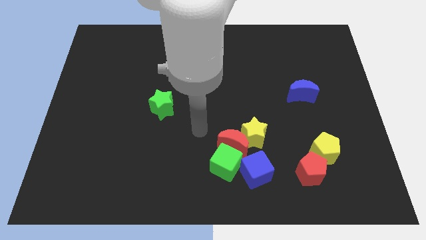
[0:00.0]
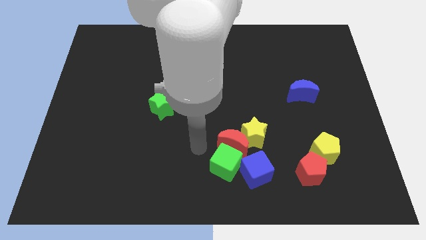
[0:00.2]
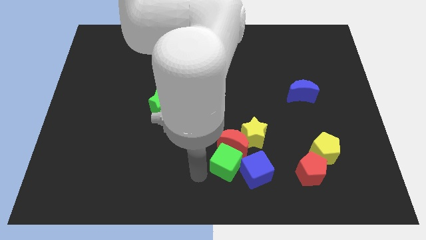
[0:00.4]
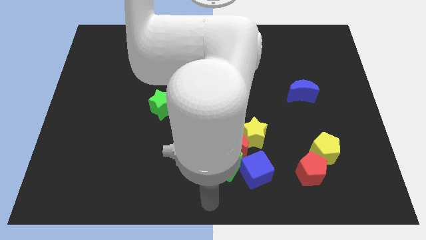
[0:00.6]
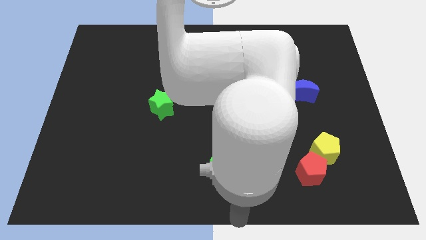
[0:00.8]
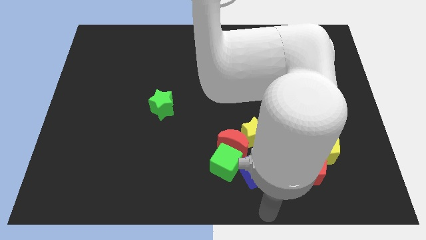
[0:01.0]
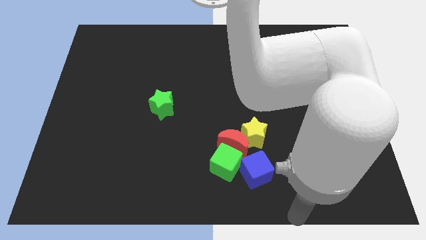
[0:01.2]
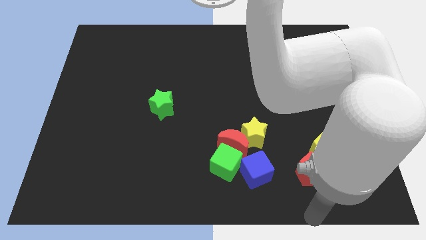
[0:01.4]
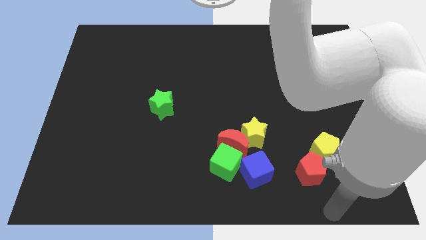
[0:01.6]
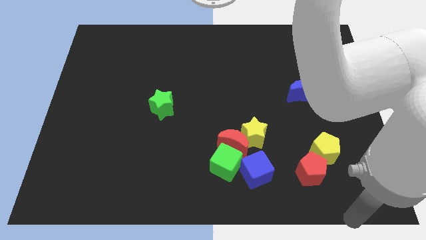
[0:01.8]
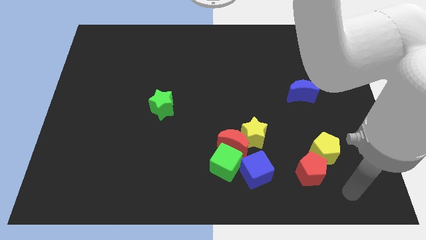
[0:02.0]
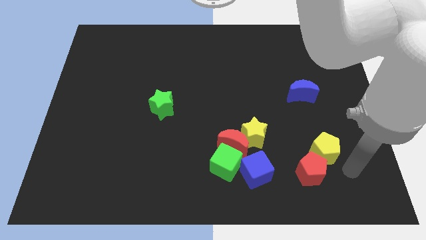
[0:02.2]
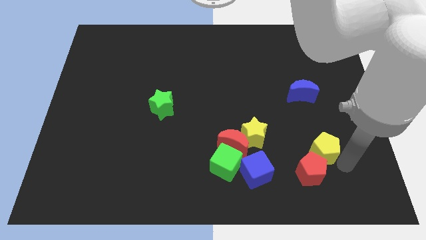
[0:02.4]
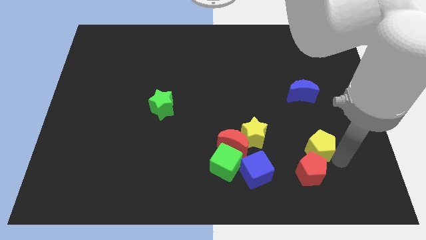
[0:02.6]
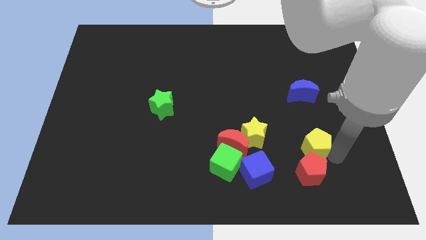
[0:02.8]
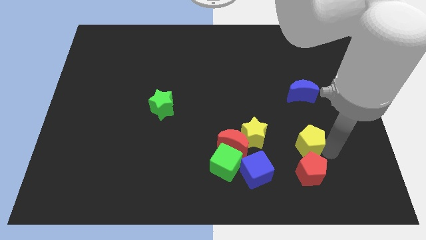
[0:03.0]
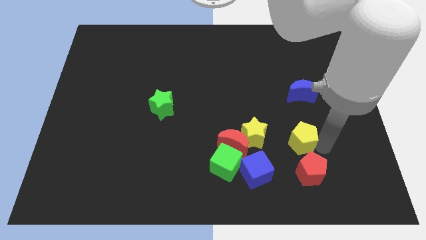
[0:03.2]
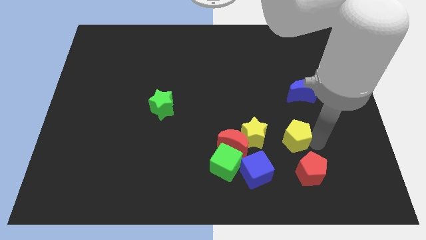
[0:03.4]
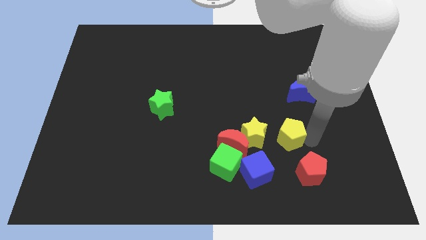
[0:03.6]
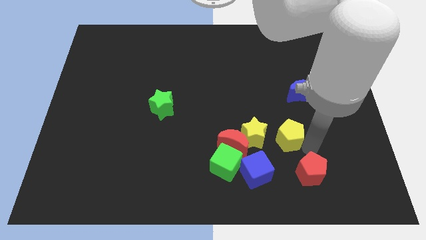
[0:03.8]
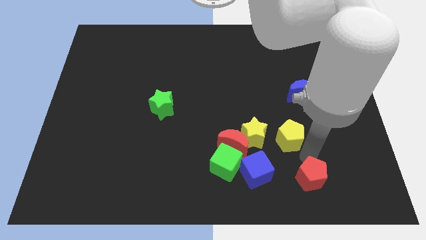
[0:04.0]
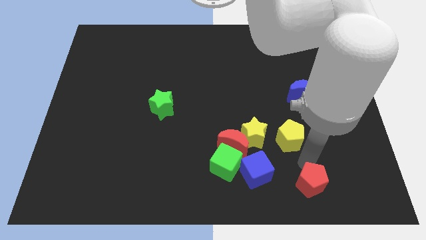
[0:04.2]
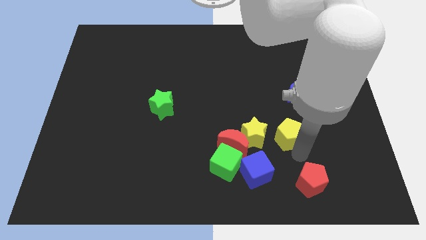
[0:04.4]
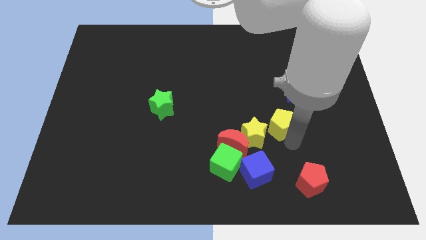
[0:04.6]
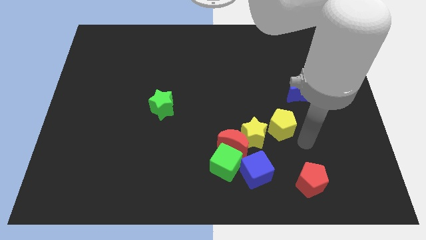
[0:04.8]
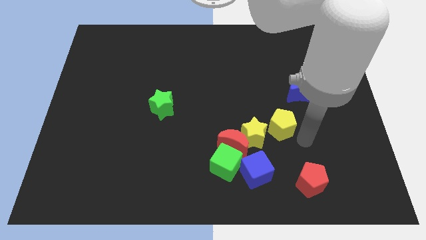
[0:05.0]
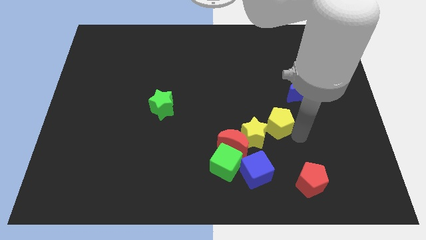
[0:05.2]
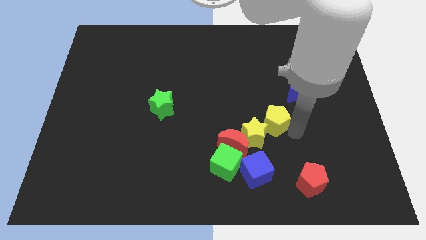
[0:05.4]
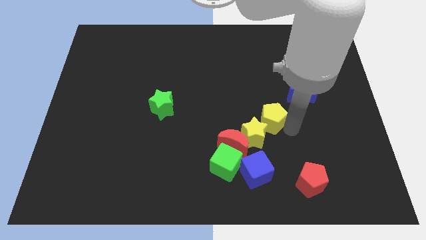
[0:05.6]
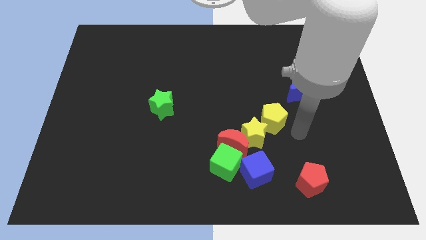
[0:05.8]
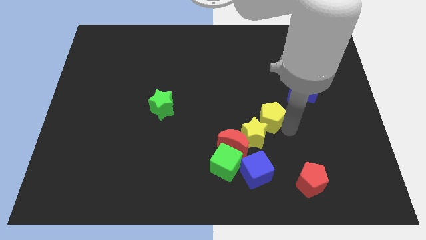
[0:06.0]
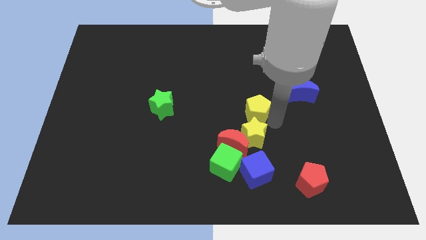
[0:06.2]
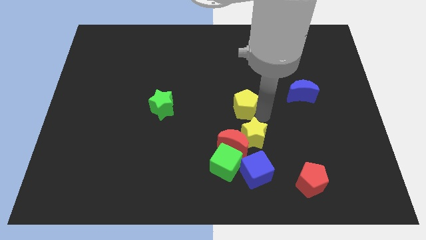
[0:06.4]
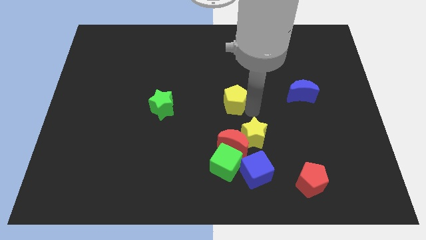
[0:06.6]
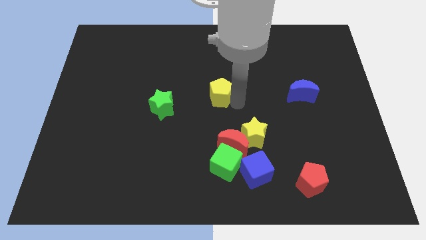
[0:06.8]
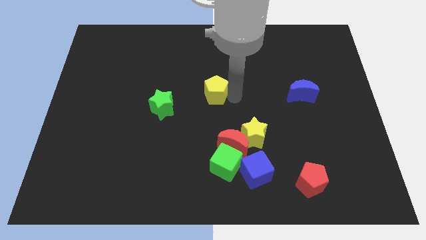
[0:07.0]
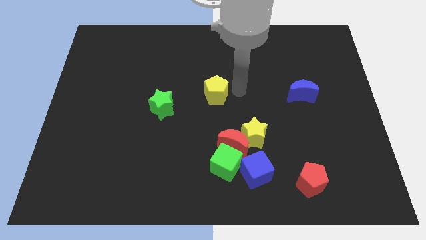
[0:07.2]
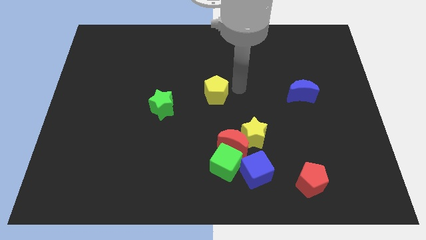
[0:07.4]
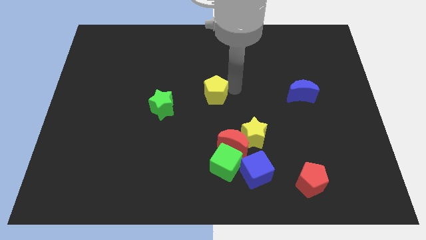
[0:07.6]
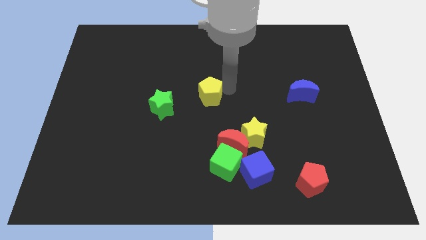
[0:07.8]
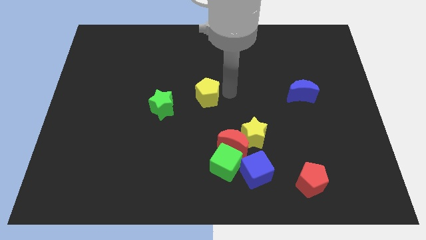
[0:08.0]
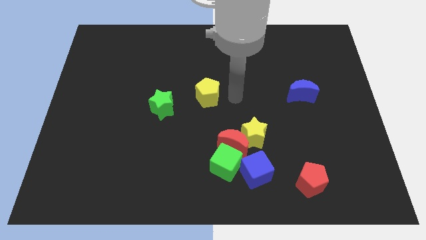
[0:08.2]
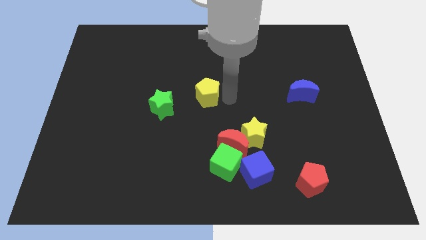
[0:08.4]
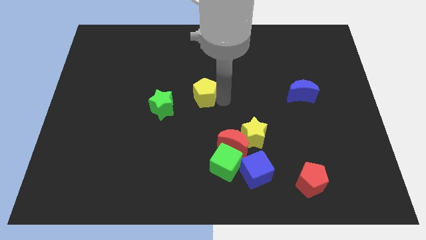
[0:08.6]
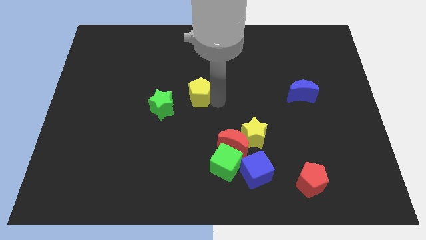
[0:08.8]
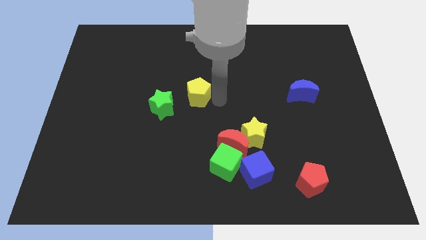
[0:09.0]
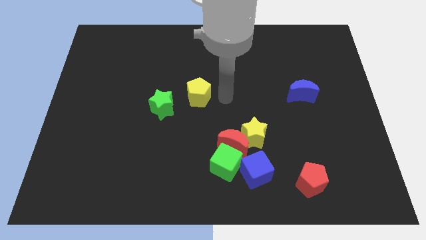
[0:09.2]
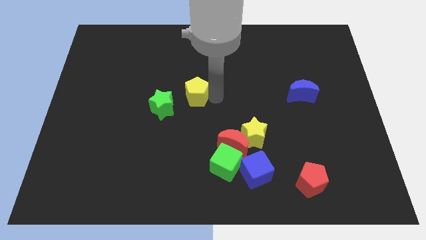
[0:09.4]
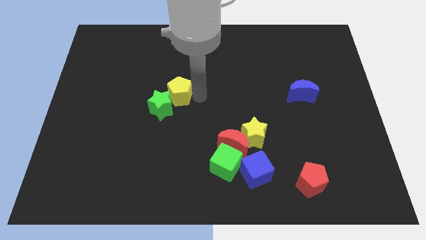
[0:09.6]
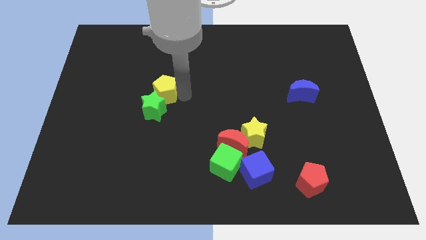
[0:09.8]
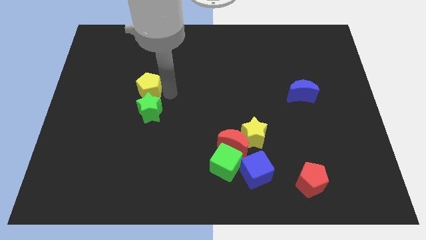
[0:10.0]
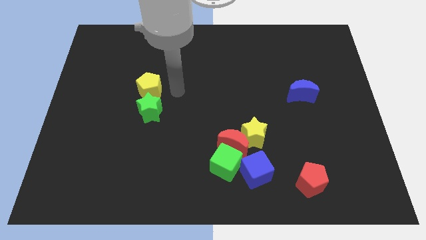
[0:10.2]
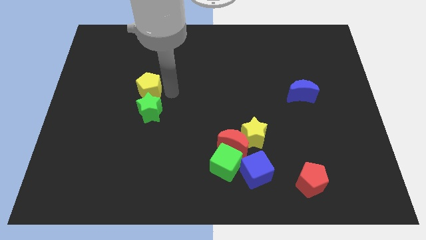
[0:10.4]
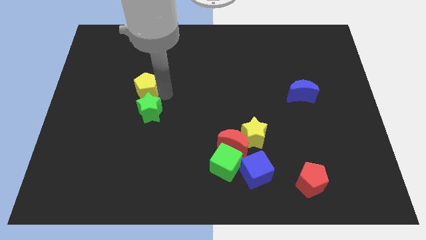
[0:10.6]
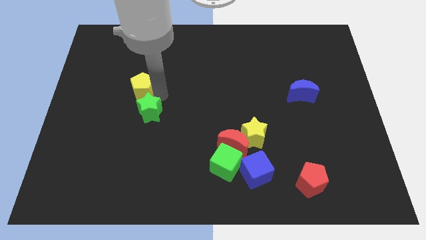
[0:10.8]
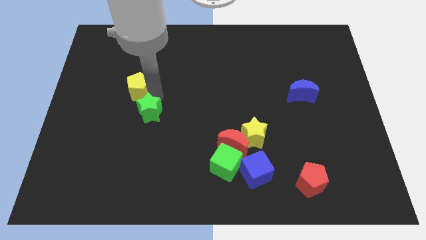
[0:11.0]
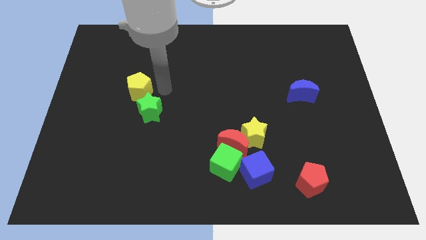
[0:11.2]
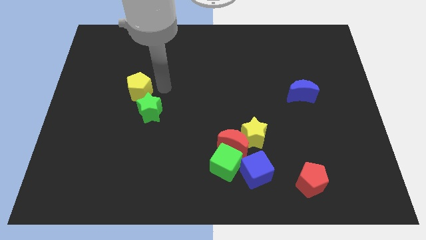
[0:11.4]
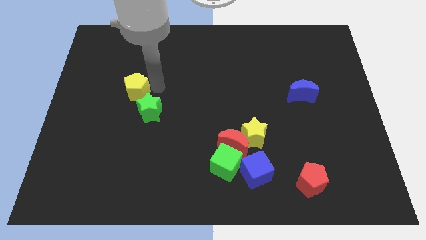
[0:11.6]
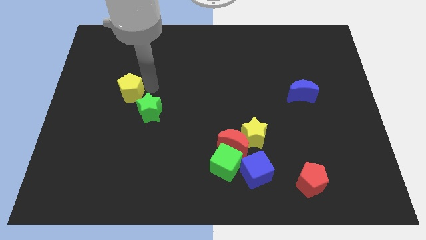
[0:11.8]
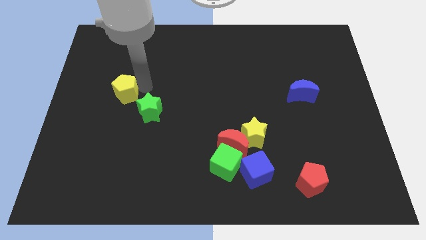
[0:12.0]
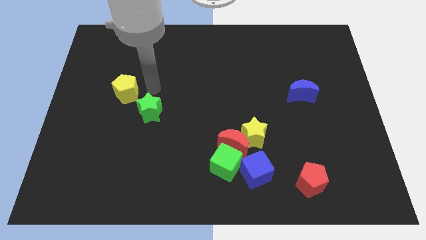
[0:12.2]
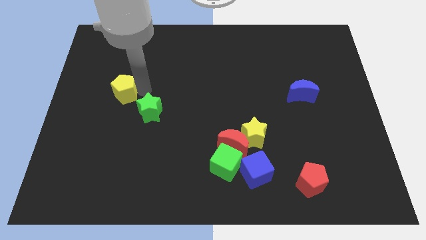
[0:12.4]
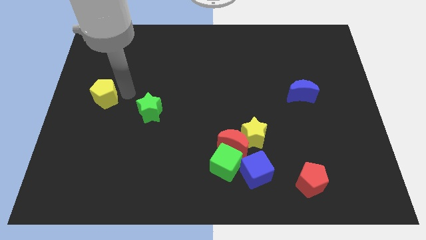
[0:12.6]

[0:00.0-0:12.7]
put the yellow pentagon to the left side

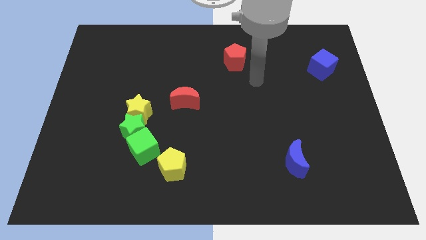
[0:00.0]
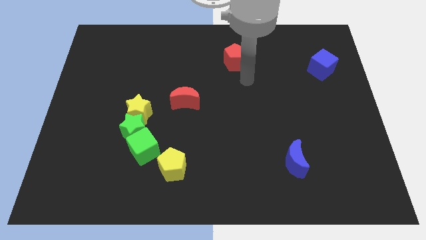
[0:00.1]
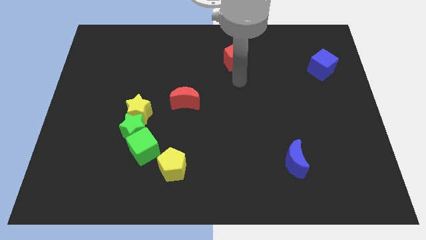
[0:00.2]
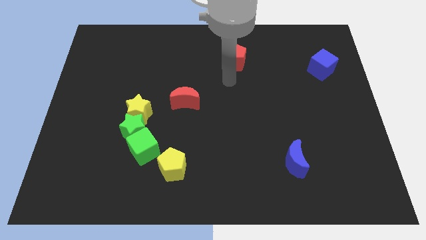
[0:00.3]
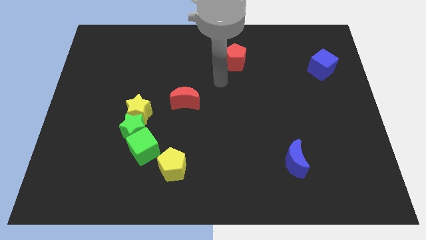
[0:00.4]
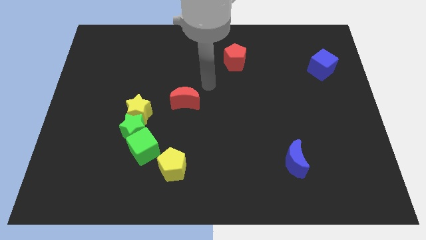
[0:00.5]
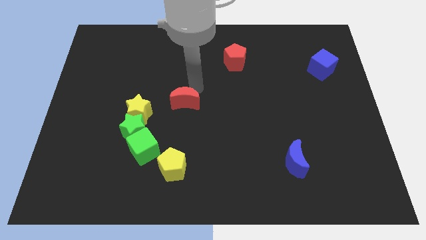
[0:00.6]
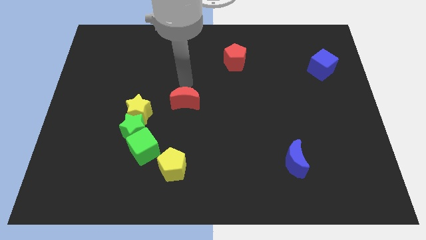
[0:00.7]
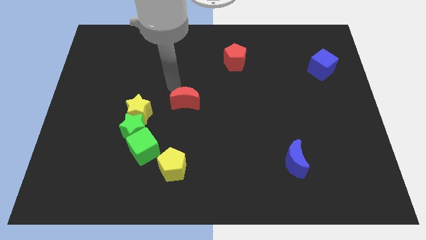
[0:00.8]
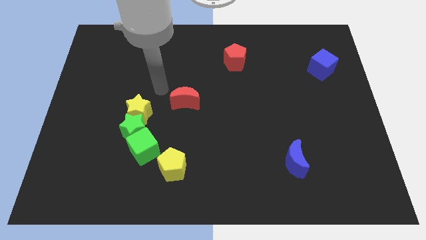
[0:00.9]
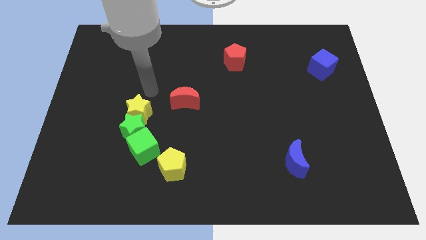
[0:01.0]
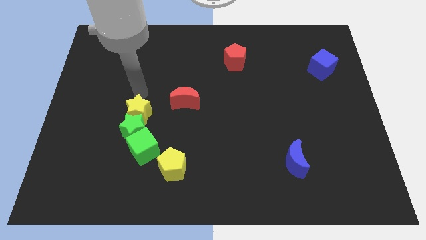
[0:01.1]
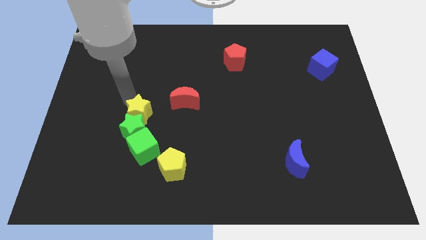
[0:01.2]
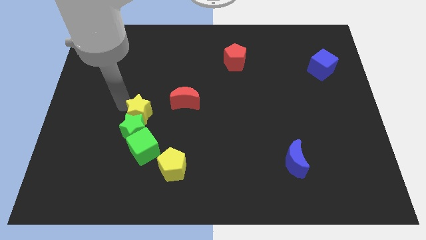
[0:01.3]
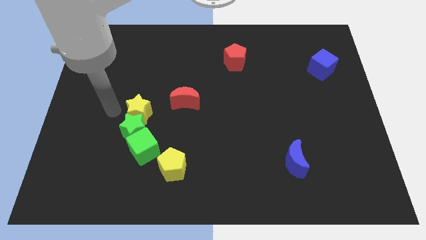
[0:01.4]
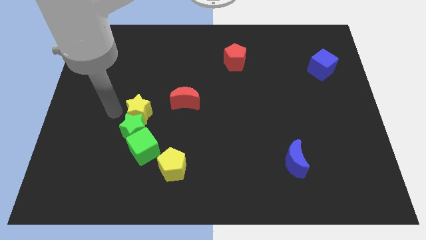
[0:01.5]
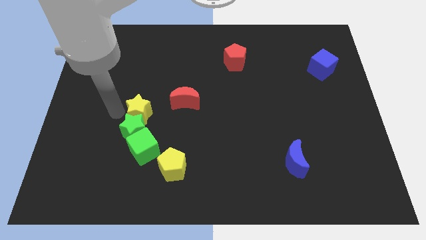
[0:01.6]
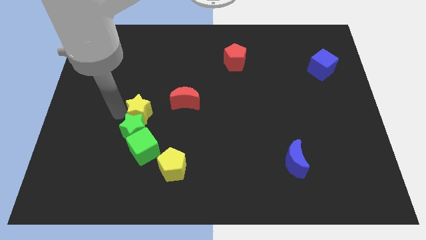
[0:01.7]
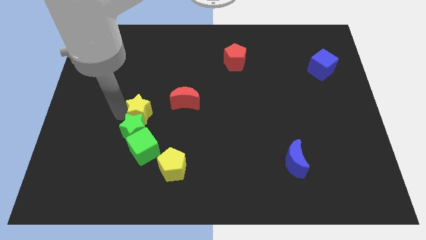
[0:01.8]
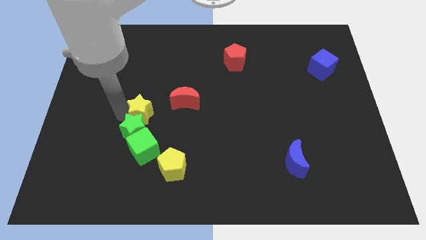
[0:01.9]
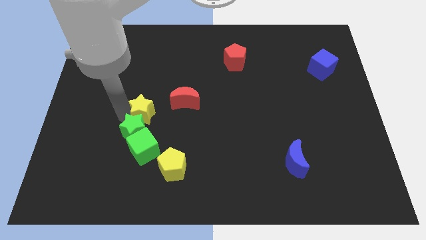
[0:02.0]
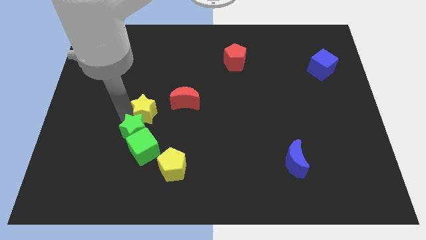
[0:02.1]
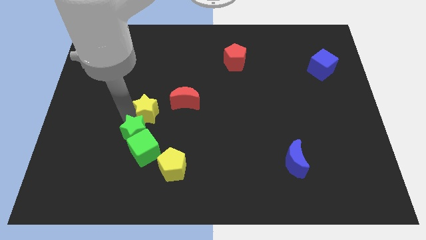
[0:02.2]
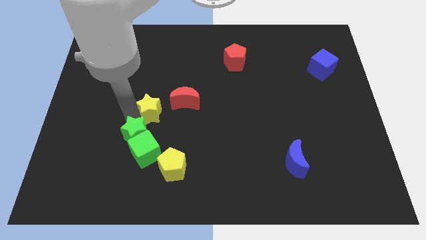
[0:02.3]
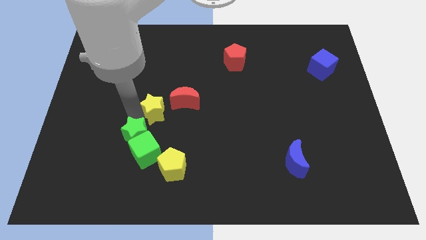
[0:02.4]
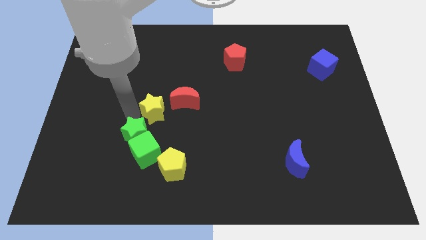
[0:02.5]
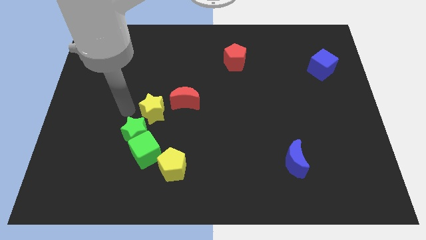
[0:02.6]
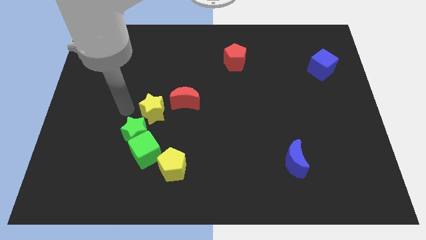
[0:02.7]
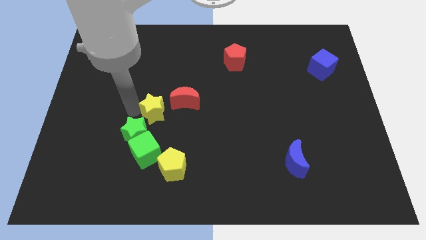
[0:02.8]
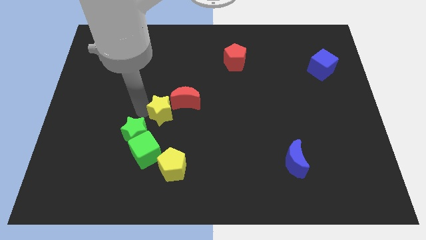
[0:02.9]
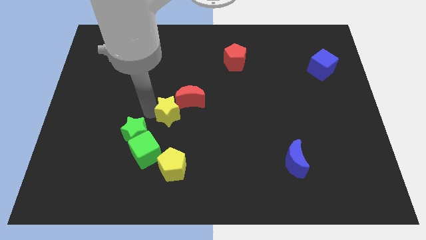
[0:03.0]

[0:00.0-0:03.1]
push the yellow star to the middle of the board
